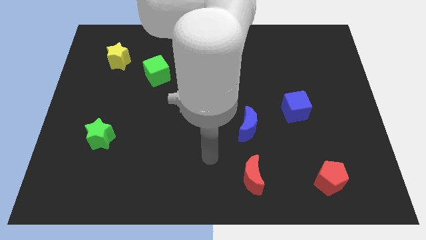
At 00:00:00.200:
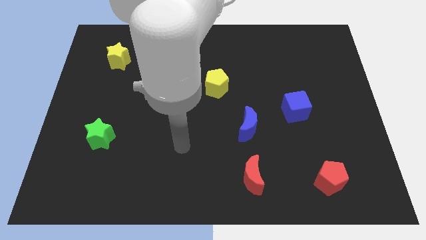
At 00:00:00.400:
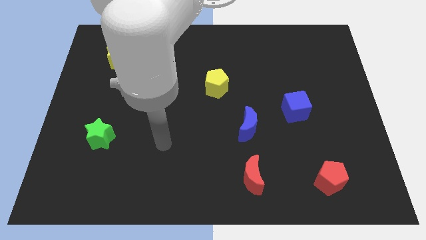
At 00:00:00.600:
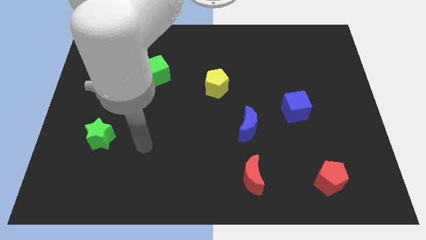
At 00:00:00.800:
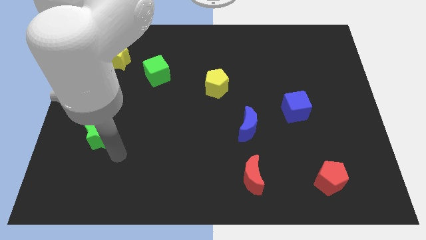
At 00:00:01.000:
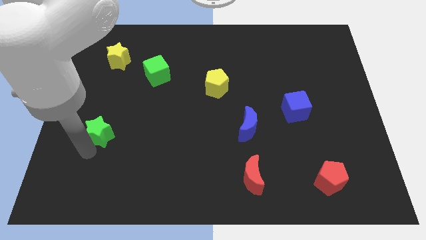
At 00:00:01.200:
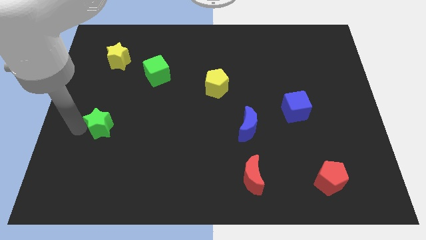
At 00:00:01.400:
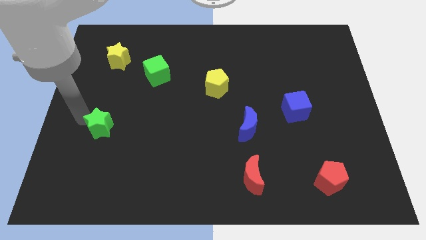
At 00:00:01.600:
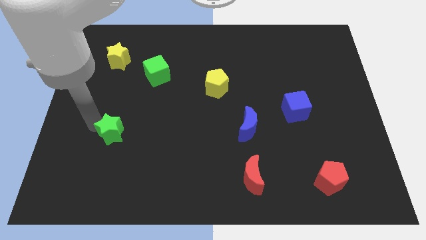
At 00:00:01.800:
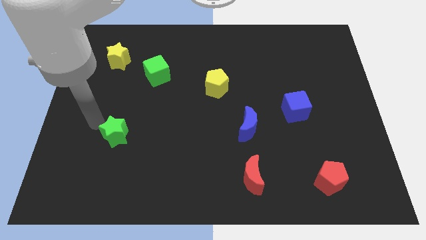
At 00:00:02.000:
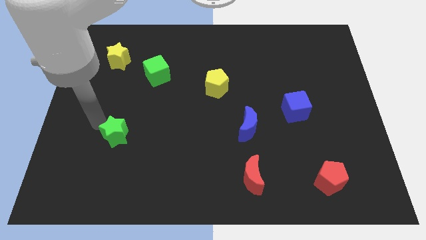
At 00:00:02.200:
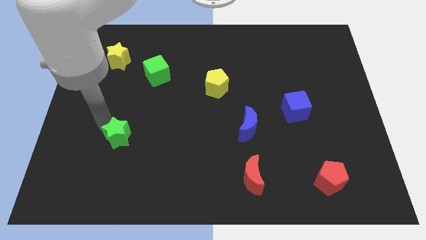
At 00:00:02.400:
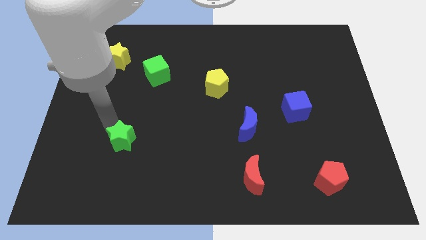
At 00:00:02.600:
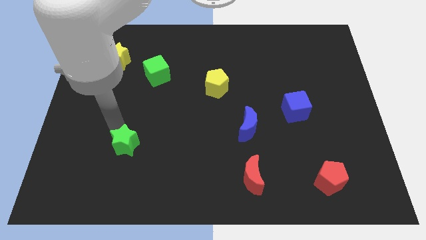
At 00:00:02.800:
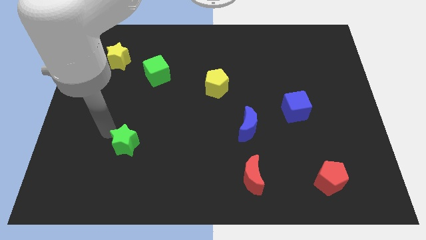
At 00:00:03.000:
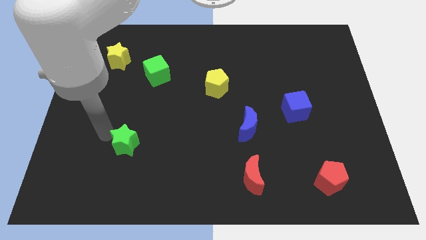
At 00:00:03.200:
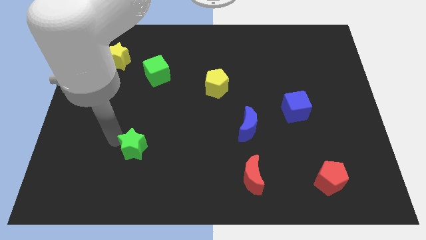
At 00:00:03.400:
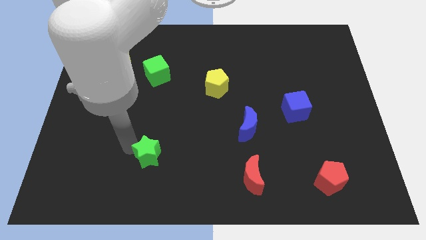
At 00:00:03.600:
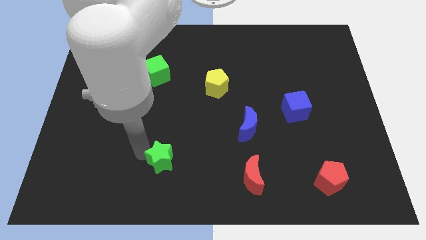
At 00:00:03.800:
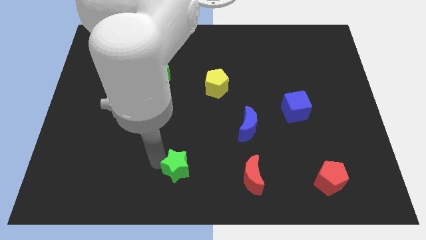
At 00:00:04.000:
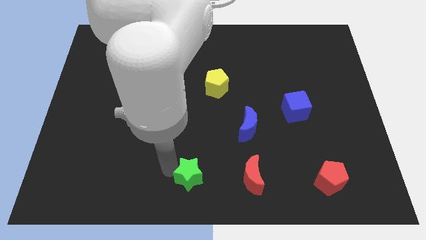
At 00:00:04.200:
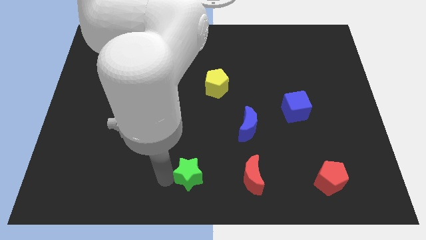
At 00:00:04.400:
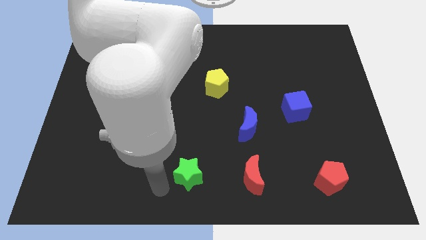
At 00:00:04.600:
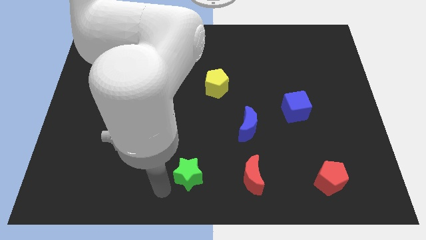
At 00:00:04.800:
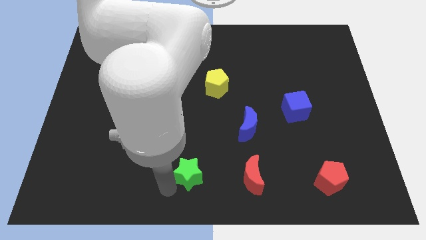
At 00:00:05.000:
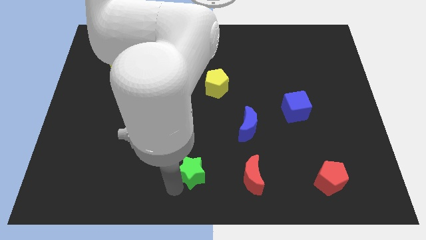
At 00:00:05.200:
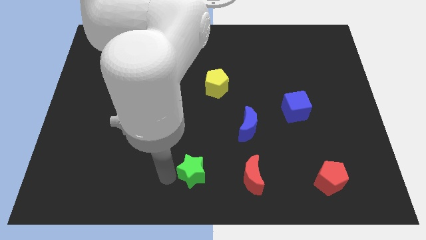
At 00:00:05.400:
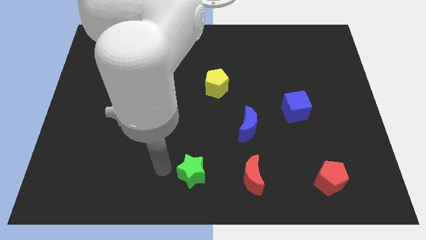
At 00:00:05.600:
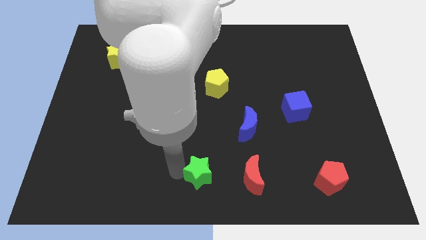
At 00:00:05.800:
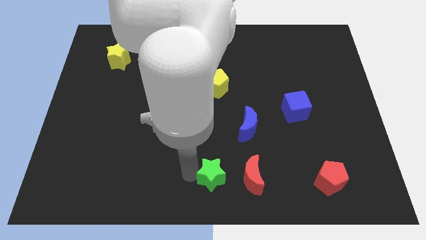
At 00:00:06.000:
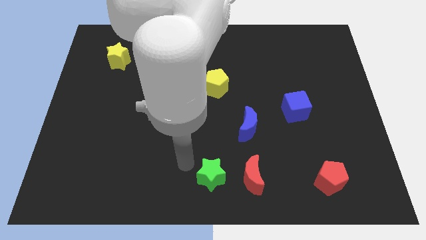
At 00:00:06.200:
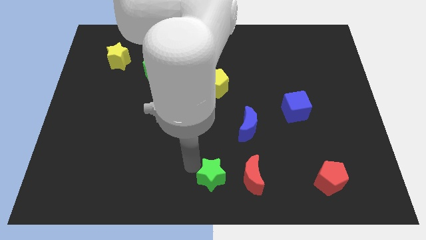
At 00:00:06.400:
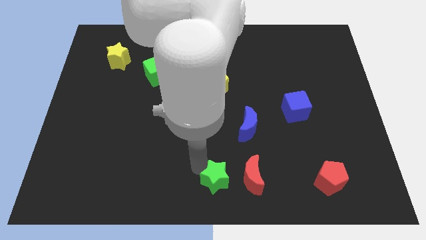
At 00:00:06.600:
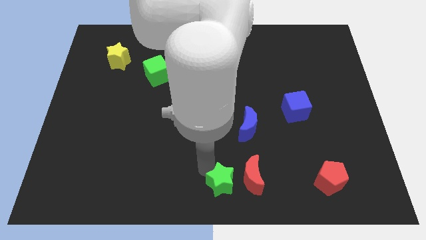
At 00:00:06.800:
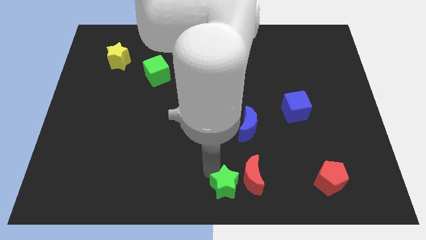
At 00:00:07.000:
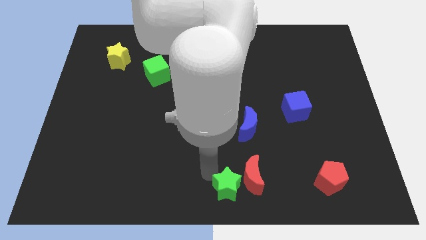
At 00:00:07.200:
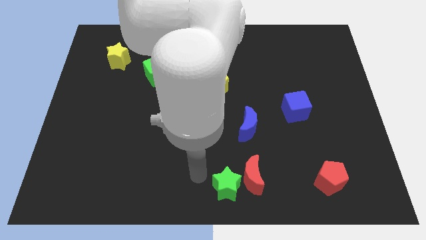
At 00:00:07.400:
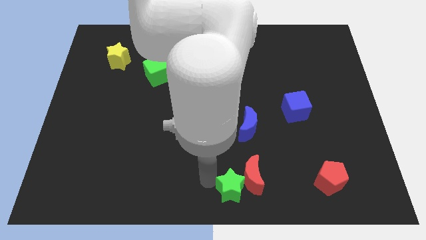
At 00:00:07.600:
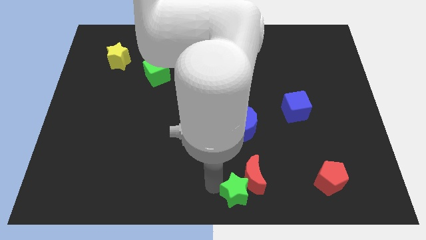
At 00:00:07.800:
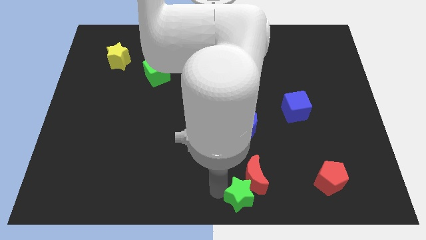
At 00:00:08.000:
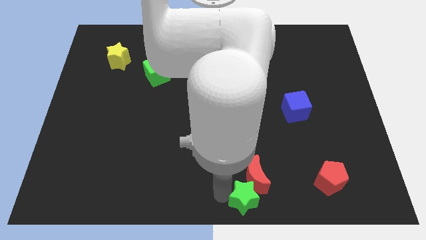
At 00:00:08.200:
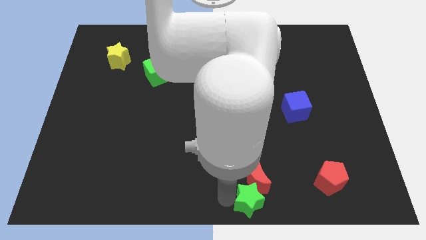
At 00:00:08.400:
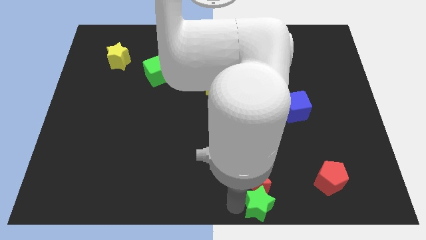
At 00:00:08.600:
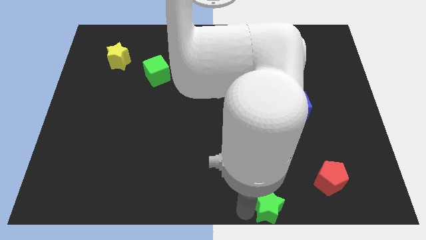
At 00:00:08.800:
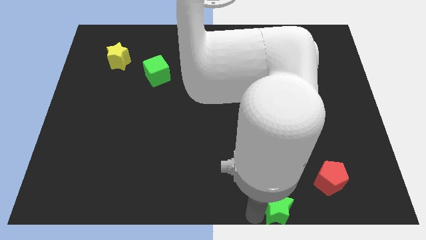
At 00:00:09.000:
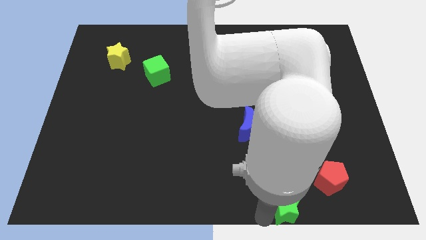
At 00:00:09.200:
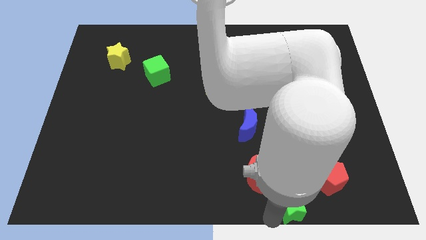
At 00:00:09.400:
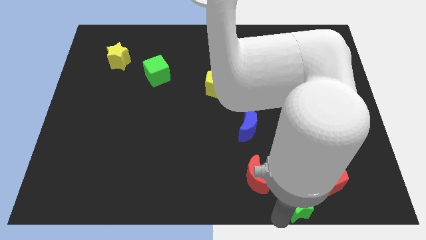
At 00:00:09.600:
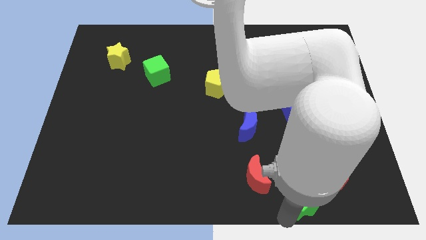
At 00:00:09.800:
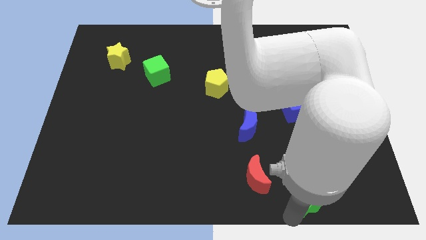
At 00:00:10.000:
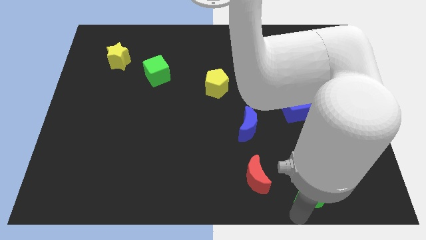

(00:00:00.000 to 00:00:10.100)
put the green star close to the red pentagon

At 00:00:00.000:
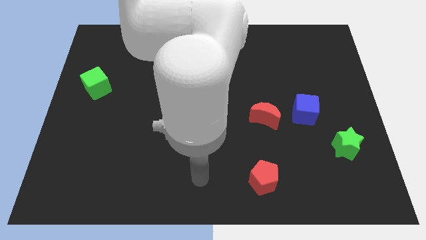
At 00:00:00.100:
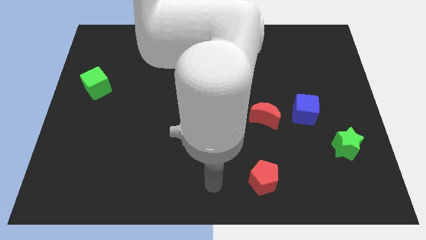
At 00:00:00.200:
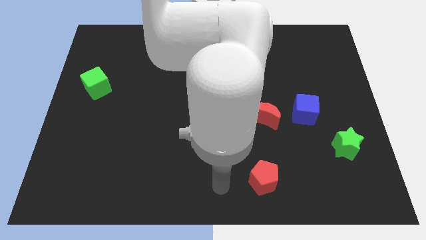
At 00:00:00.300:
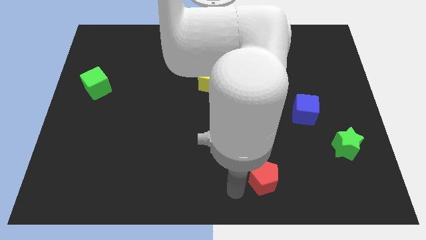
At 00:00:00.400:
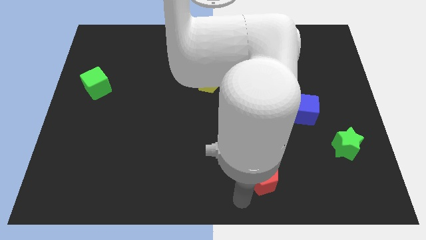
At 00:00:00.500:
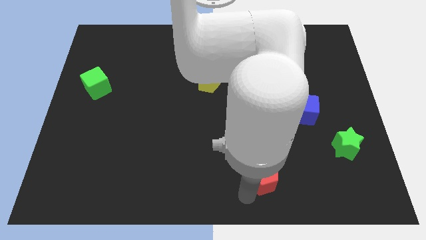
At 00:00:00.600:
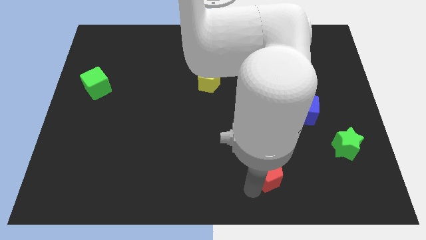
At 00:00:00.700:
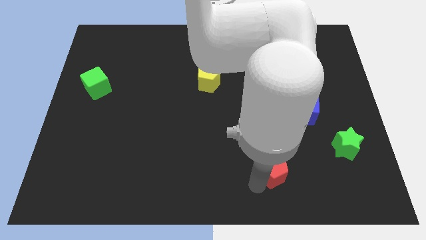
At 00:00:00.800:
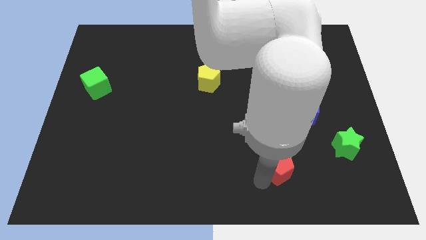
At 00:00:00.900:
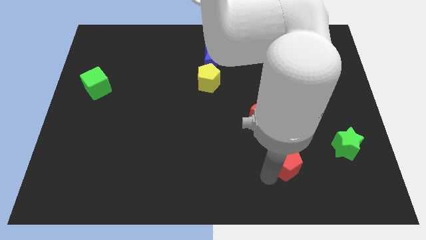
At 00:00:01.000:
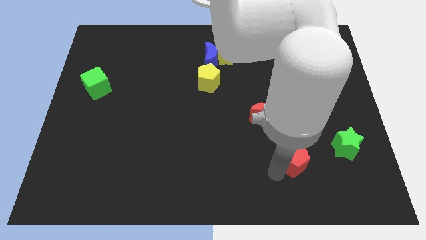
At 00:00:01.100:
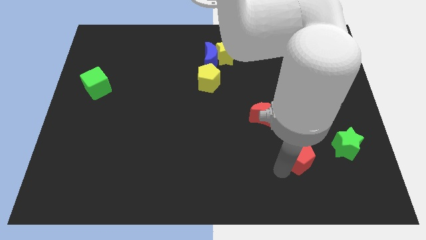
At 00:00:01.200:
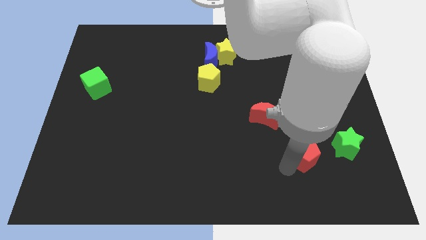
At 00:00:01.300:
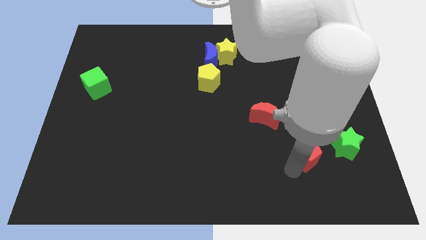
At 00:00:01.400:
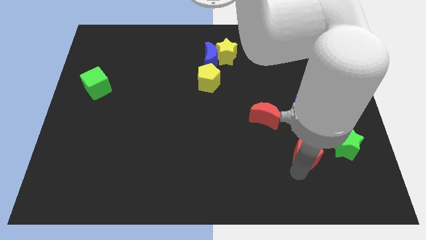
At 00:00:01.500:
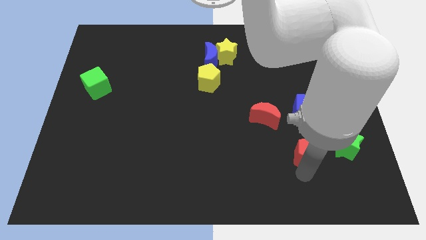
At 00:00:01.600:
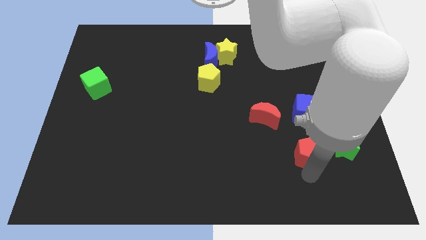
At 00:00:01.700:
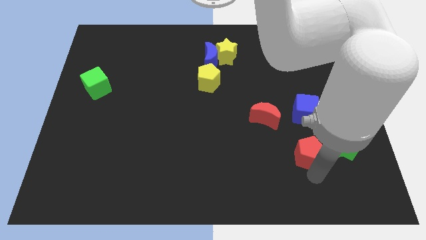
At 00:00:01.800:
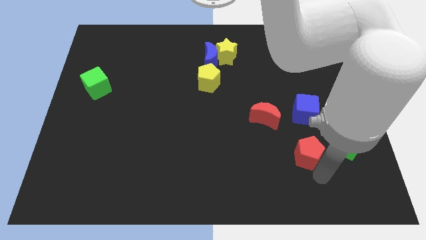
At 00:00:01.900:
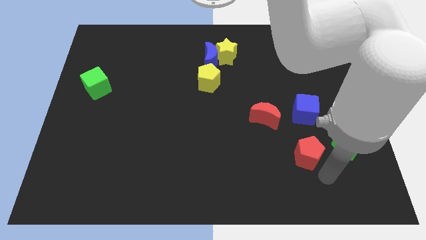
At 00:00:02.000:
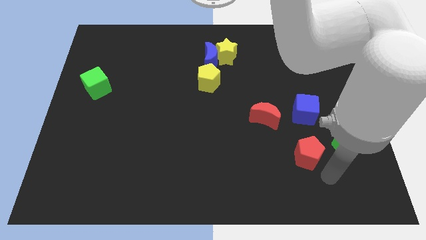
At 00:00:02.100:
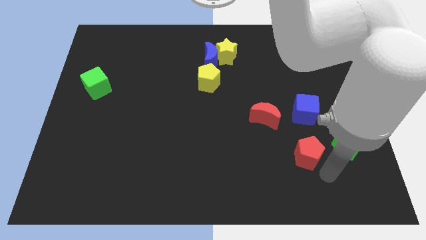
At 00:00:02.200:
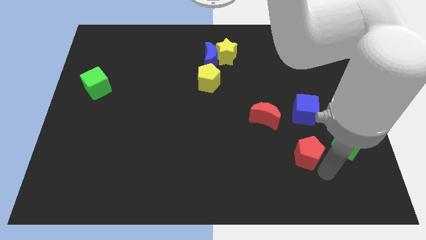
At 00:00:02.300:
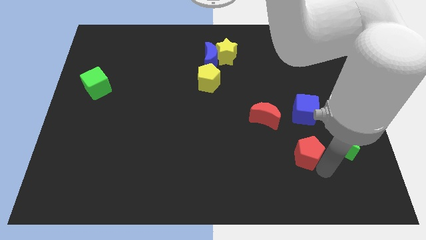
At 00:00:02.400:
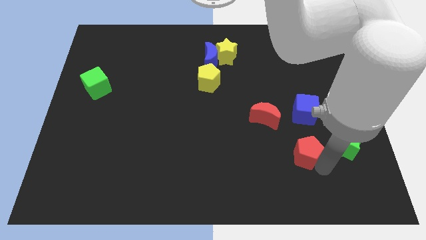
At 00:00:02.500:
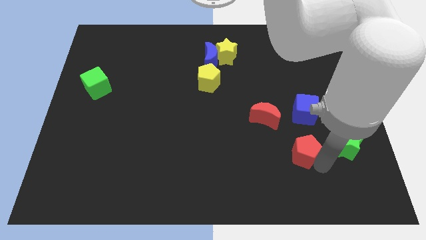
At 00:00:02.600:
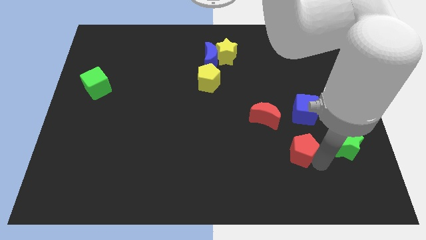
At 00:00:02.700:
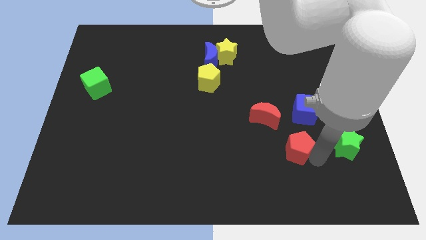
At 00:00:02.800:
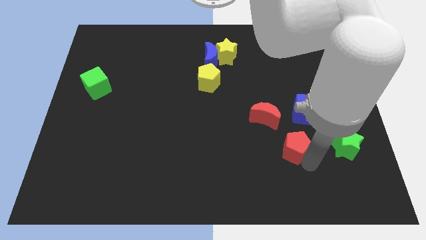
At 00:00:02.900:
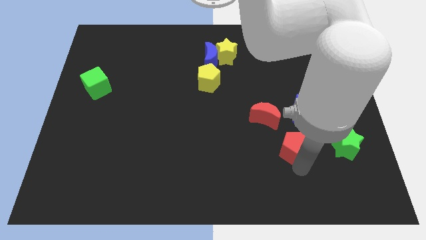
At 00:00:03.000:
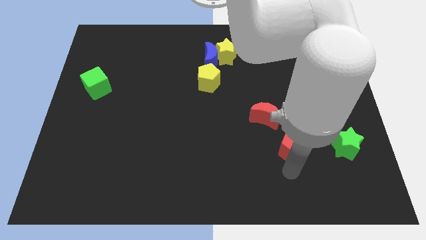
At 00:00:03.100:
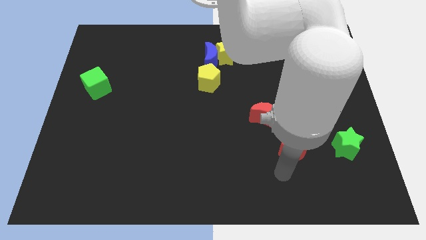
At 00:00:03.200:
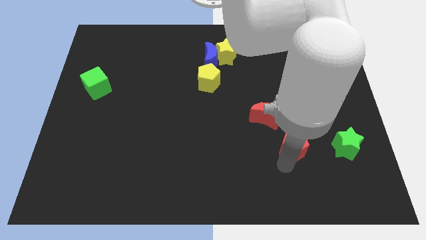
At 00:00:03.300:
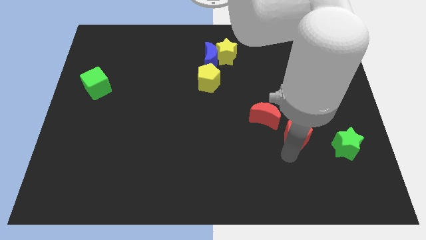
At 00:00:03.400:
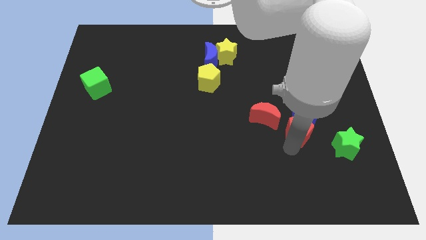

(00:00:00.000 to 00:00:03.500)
slide the red pentagon to the blue cube
